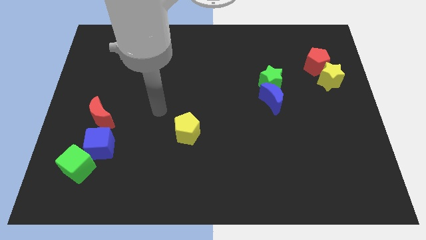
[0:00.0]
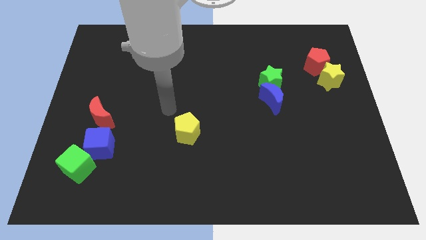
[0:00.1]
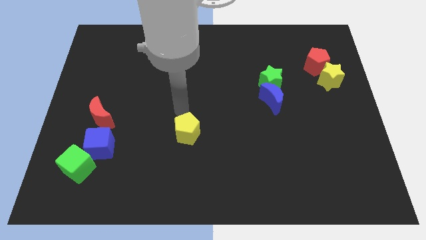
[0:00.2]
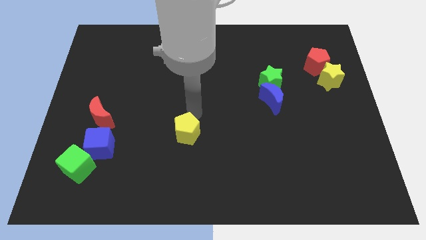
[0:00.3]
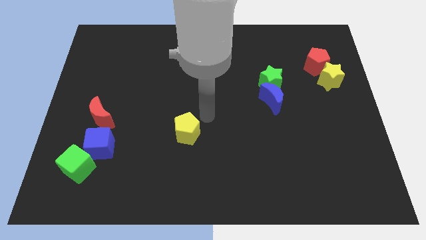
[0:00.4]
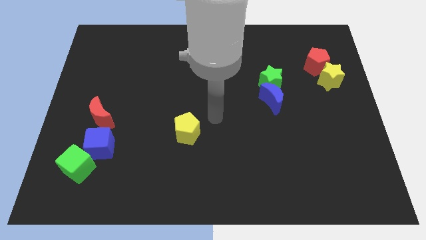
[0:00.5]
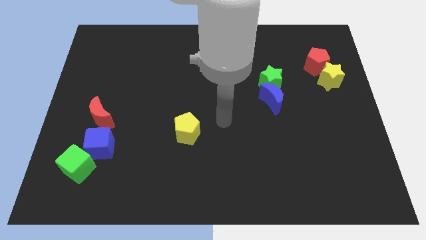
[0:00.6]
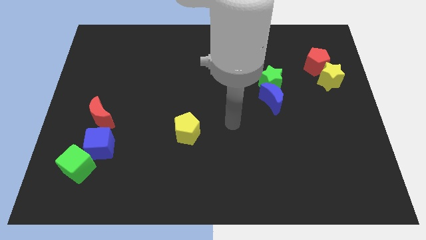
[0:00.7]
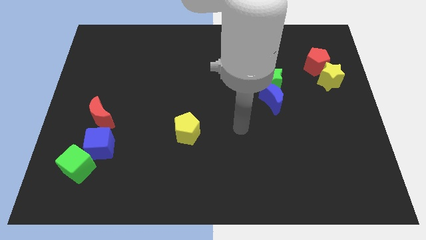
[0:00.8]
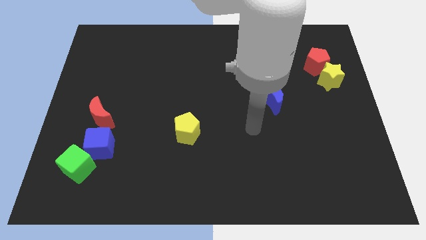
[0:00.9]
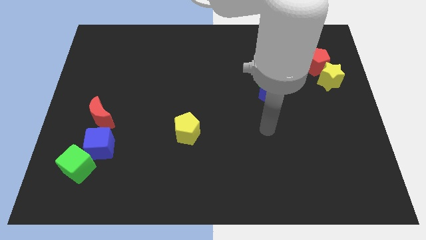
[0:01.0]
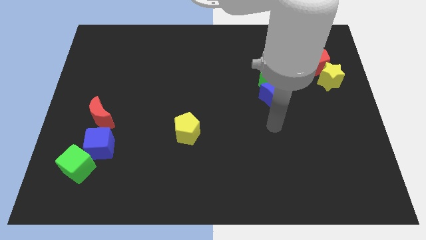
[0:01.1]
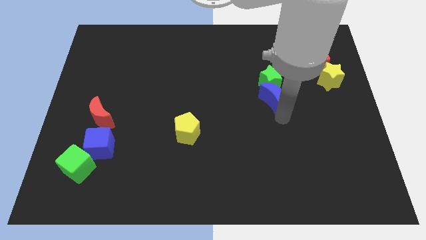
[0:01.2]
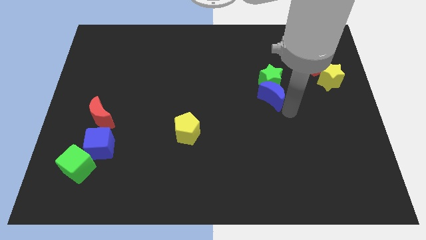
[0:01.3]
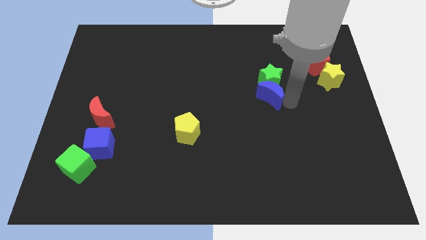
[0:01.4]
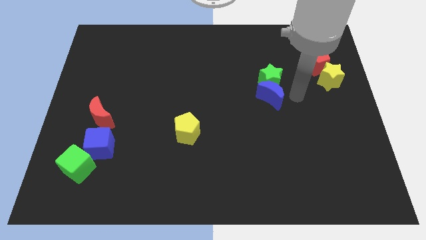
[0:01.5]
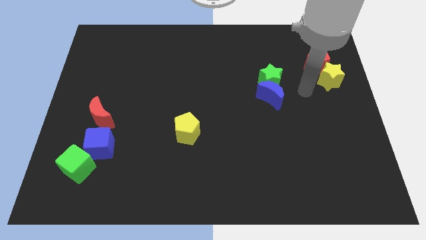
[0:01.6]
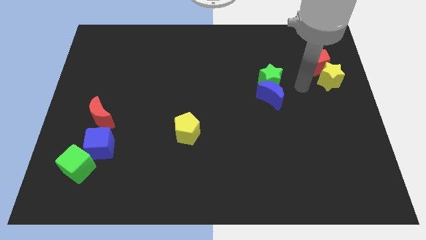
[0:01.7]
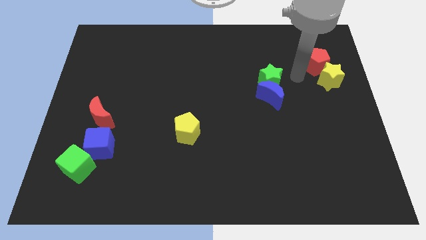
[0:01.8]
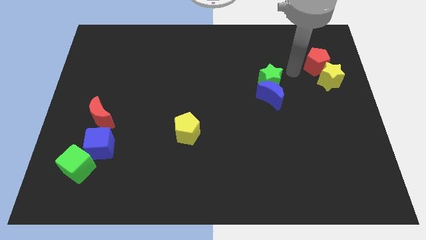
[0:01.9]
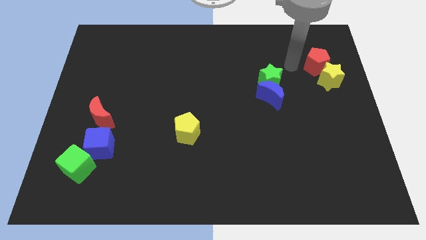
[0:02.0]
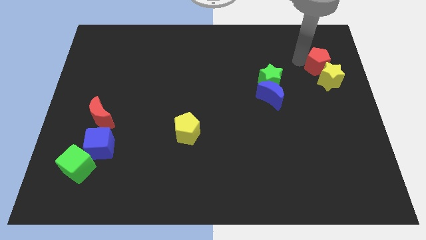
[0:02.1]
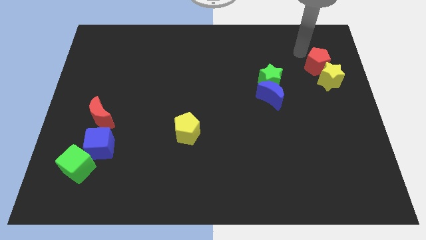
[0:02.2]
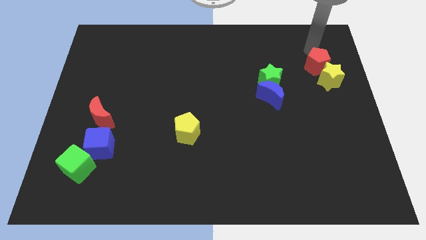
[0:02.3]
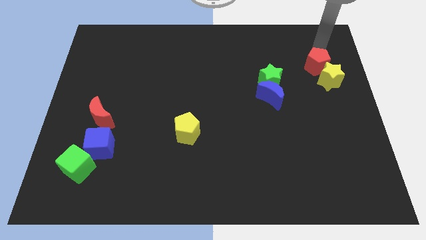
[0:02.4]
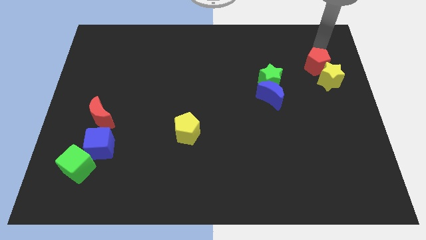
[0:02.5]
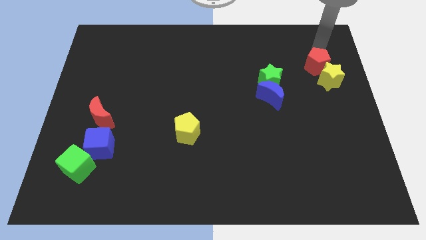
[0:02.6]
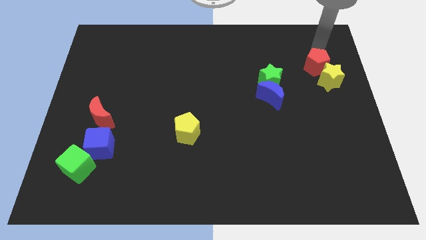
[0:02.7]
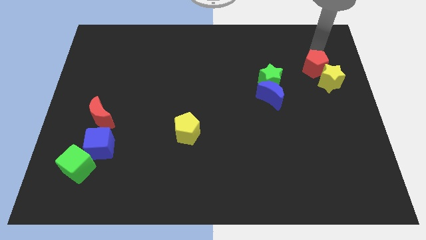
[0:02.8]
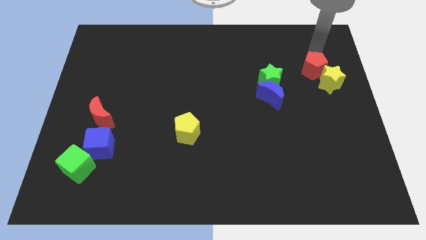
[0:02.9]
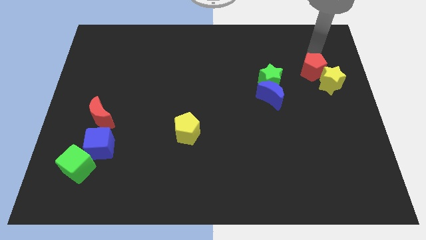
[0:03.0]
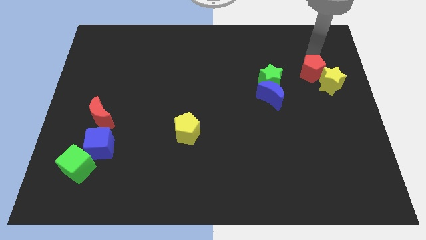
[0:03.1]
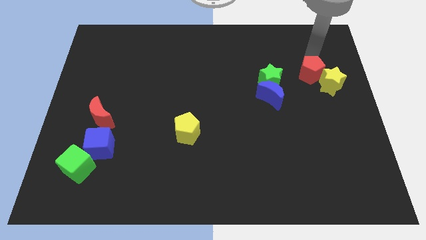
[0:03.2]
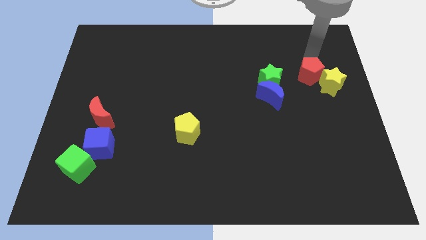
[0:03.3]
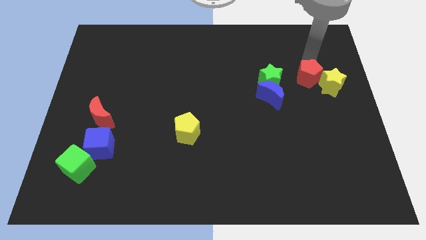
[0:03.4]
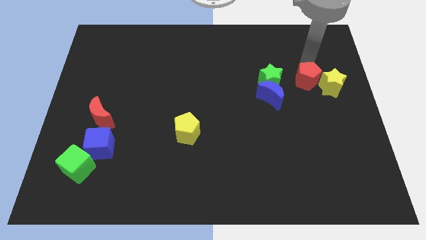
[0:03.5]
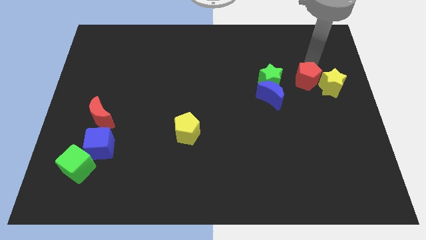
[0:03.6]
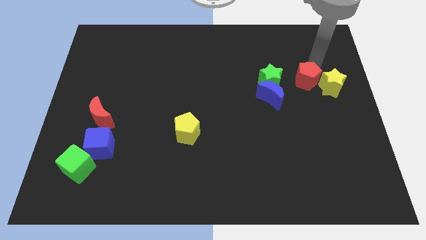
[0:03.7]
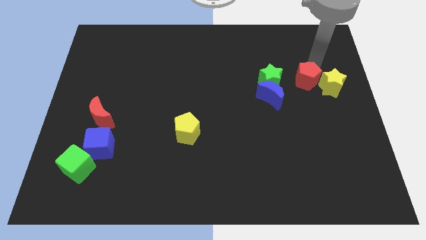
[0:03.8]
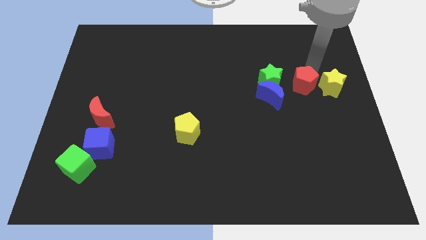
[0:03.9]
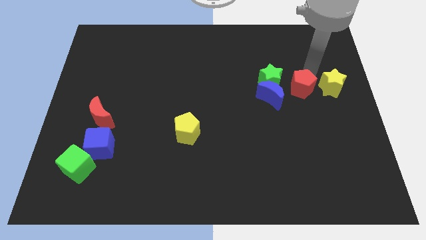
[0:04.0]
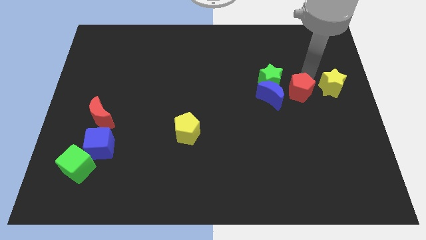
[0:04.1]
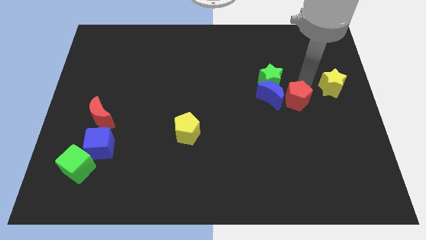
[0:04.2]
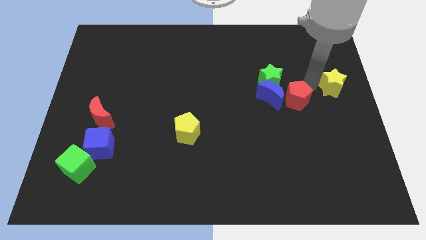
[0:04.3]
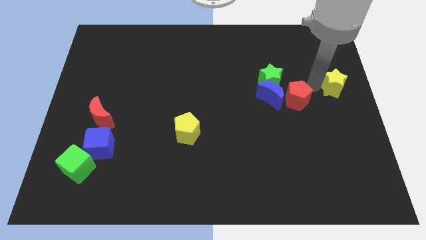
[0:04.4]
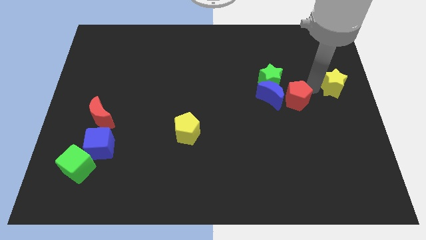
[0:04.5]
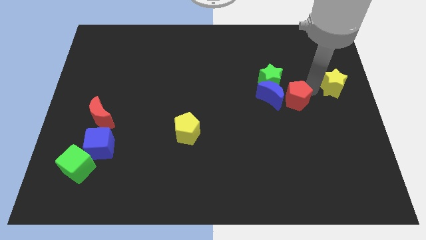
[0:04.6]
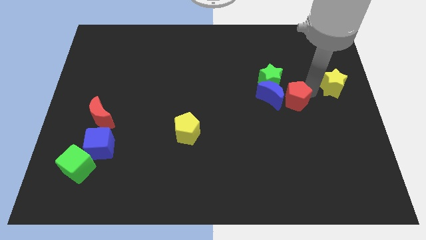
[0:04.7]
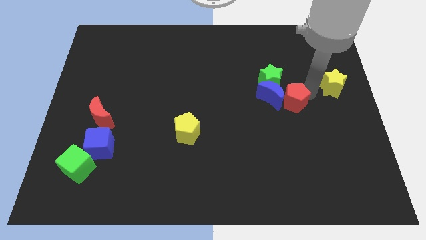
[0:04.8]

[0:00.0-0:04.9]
slide the red pentagon to the bottom side of the green star

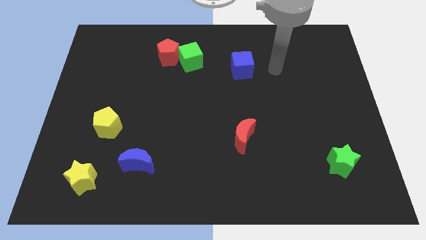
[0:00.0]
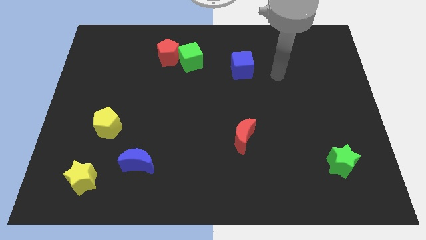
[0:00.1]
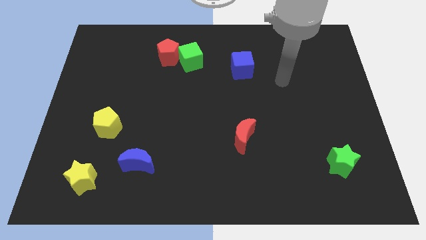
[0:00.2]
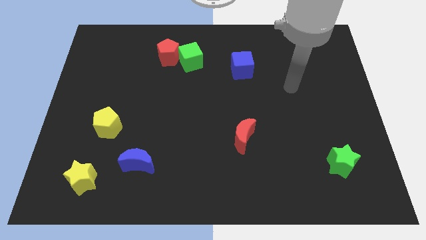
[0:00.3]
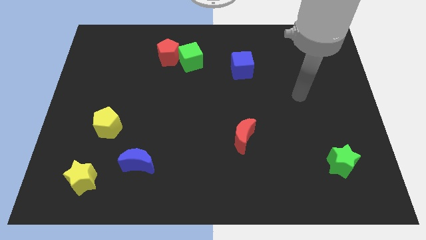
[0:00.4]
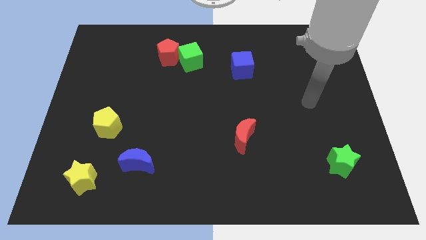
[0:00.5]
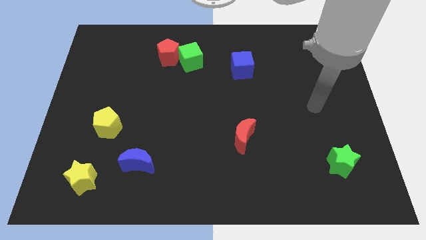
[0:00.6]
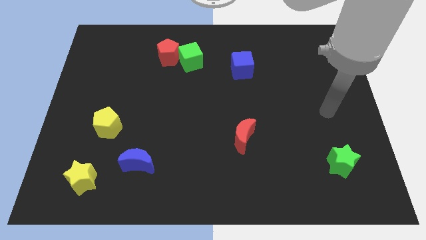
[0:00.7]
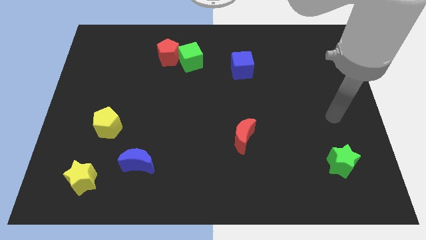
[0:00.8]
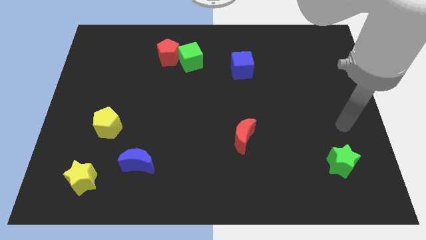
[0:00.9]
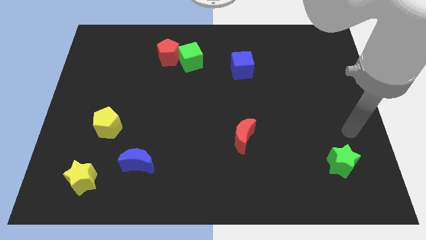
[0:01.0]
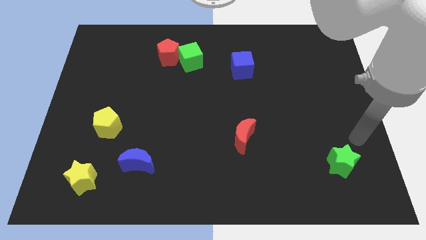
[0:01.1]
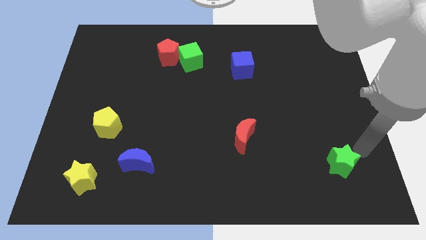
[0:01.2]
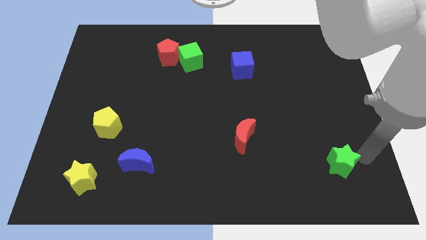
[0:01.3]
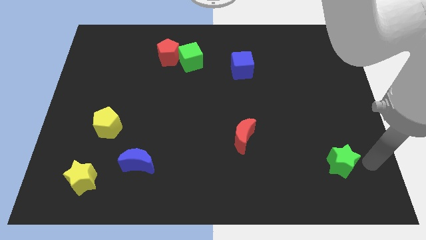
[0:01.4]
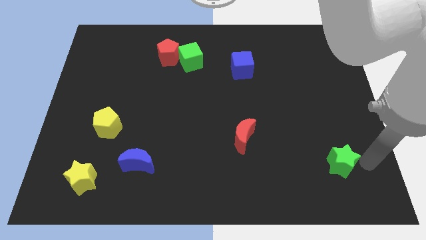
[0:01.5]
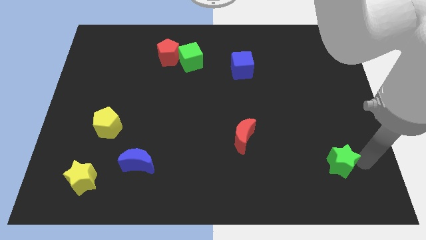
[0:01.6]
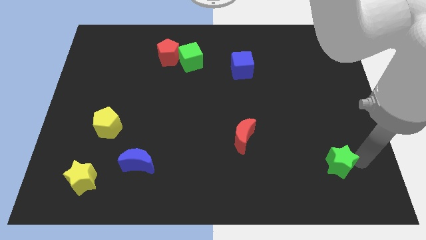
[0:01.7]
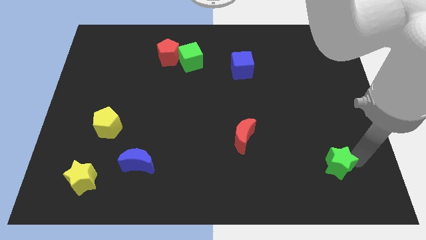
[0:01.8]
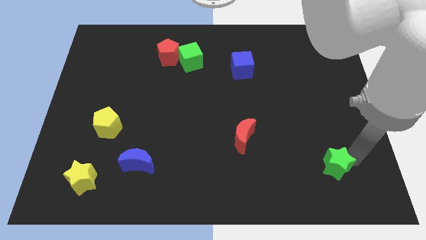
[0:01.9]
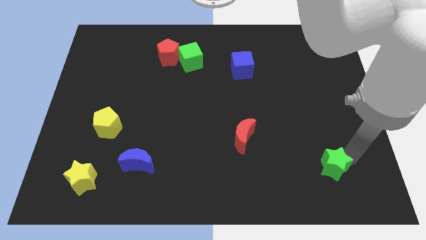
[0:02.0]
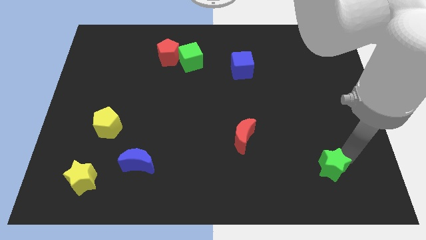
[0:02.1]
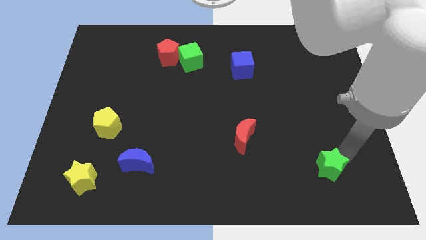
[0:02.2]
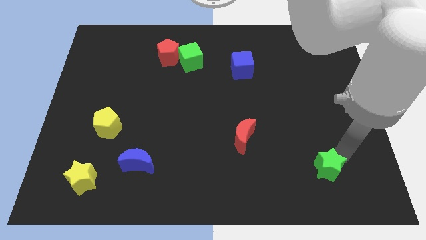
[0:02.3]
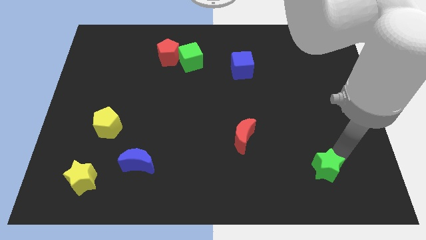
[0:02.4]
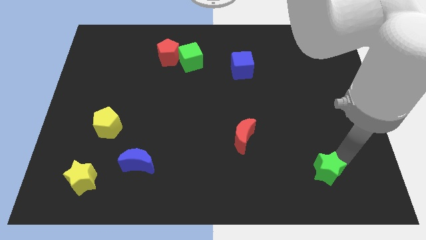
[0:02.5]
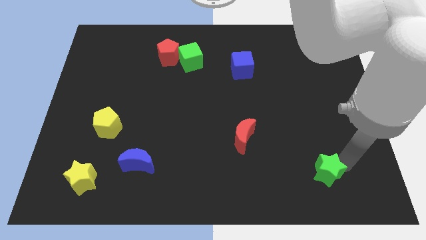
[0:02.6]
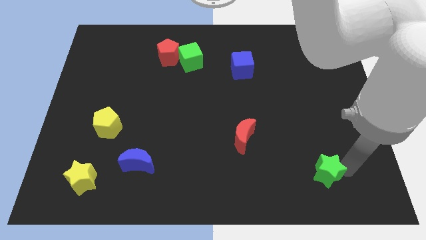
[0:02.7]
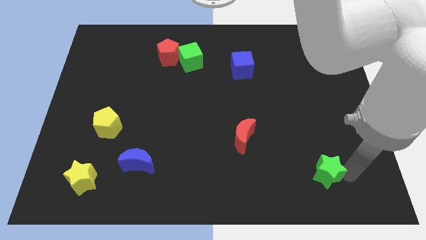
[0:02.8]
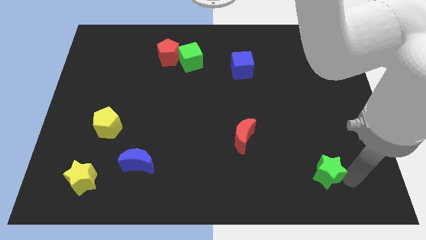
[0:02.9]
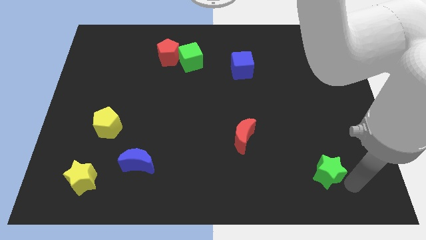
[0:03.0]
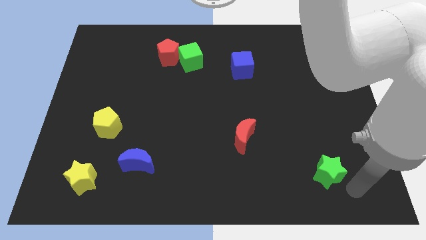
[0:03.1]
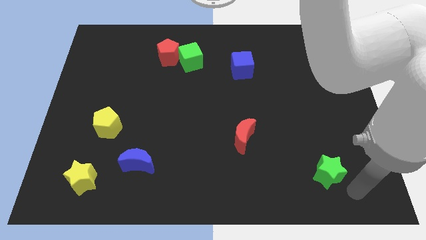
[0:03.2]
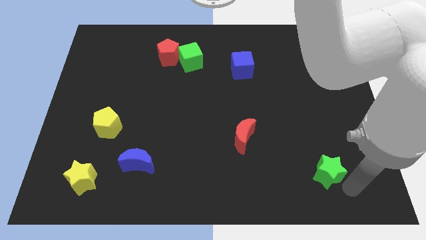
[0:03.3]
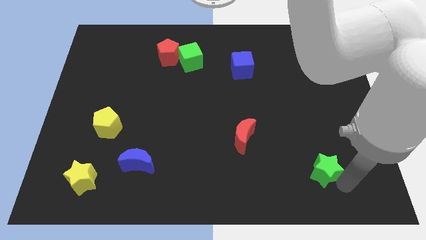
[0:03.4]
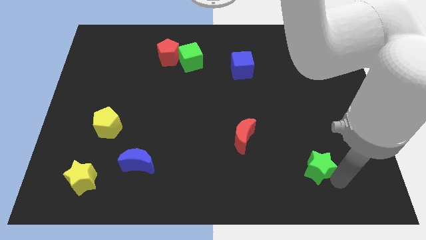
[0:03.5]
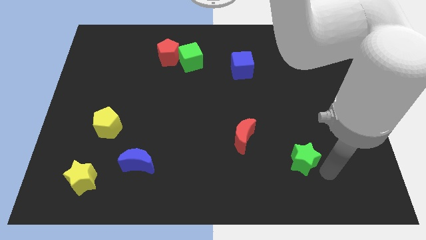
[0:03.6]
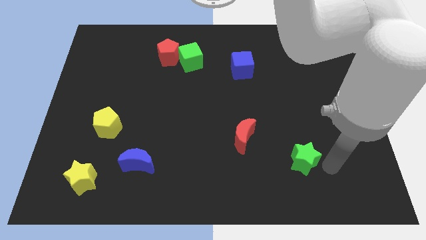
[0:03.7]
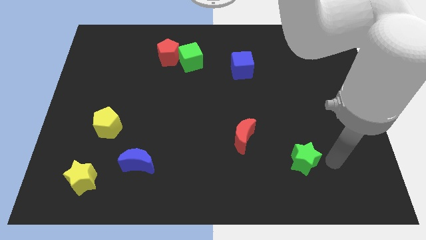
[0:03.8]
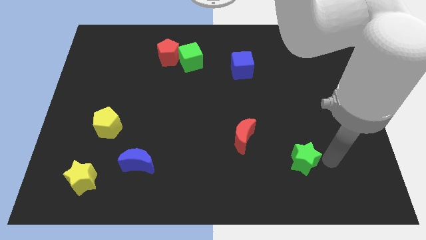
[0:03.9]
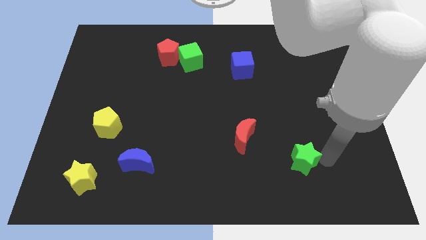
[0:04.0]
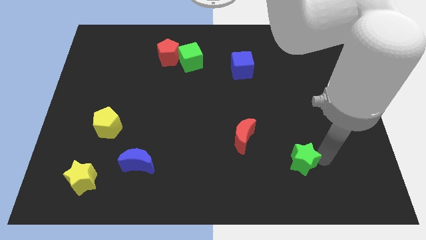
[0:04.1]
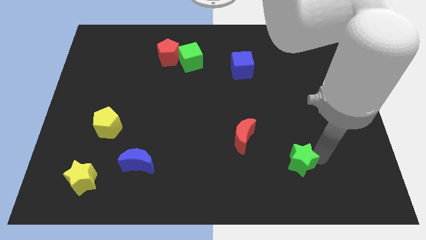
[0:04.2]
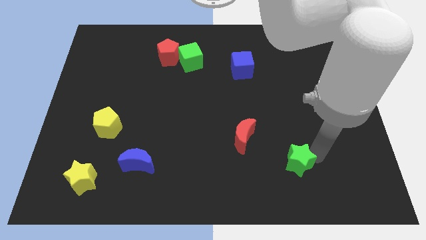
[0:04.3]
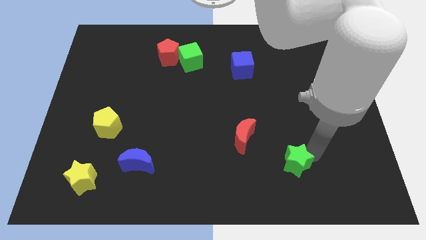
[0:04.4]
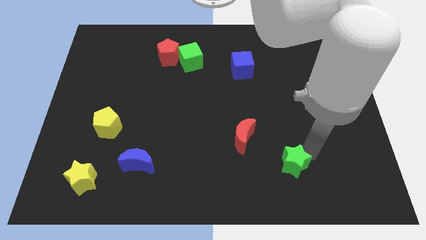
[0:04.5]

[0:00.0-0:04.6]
move the green star diagonally down and to the right of the red moon
